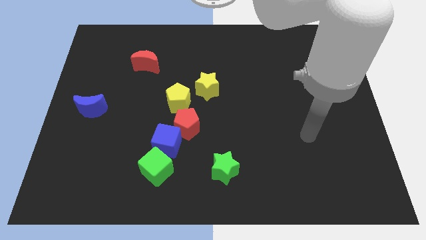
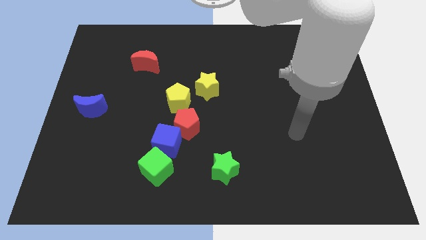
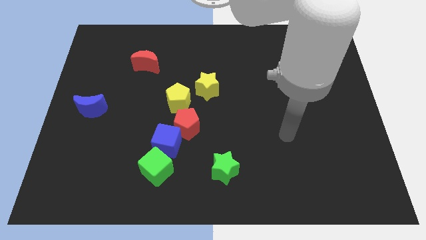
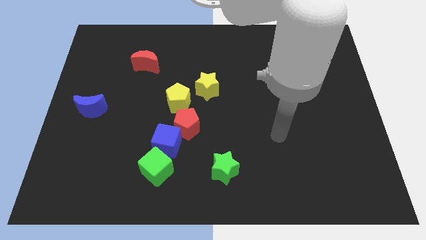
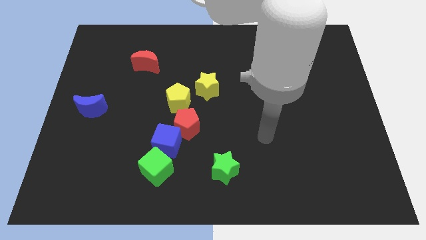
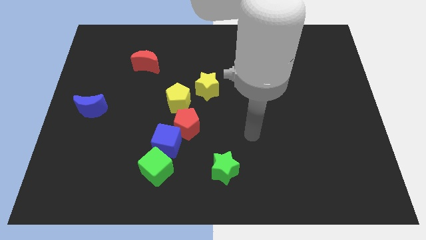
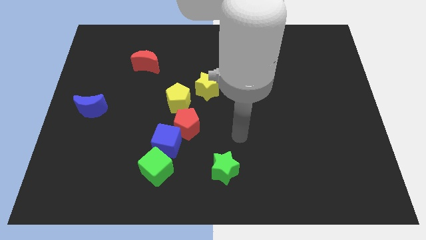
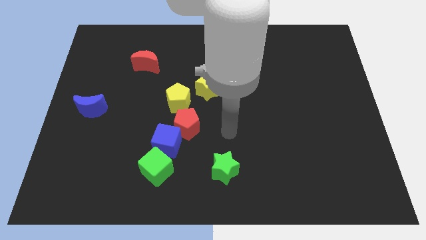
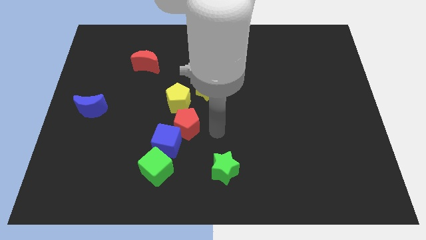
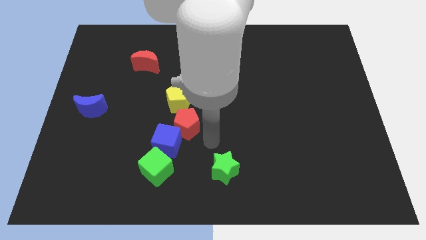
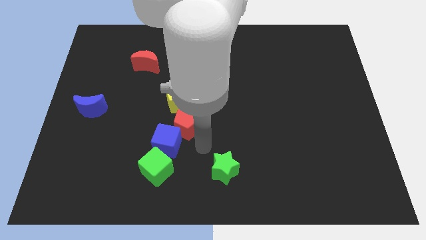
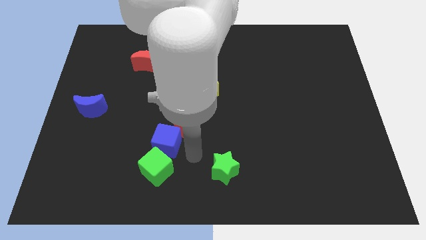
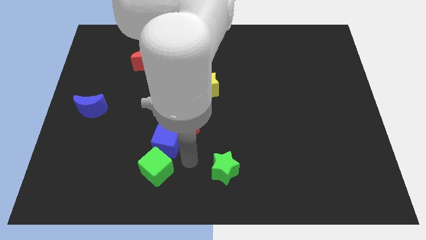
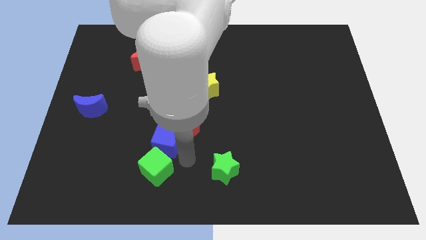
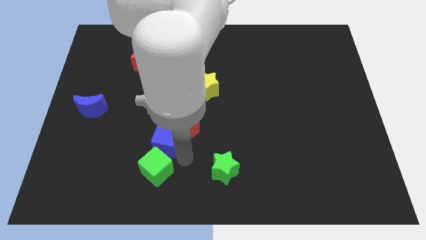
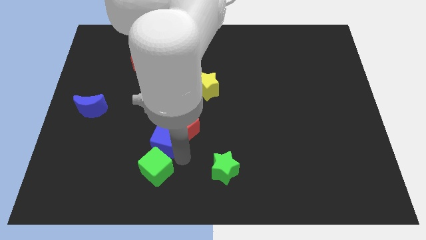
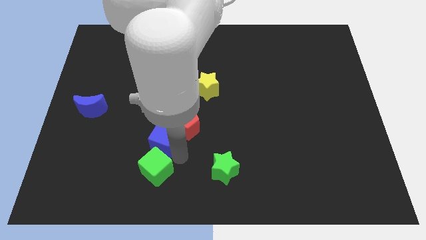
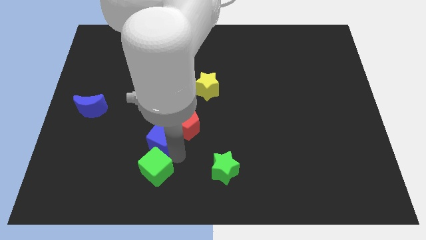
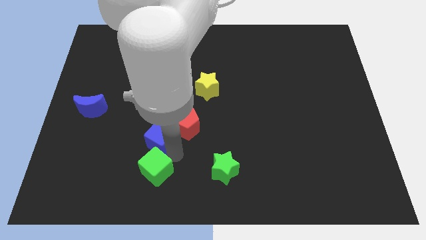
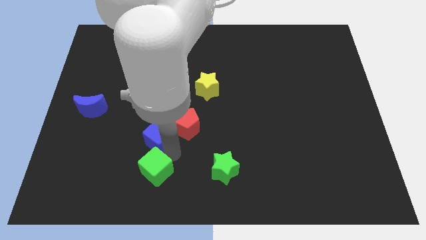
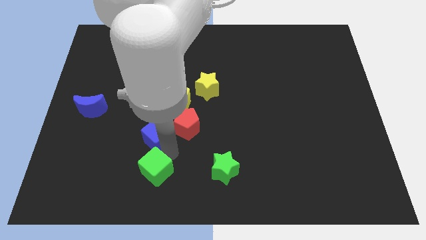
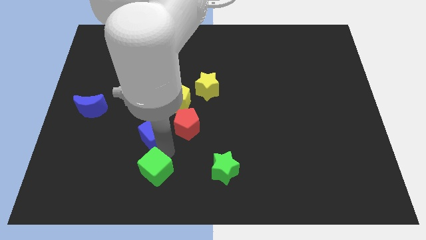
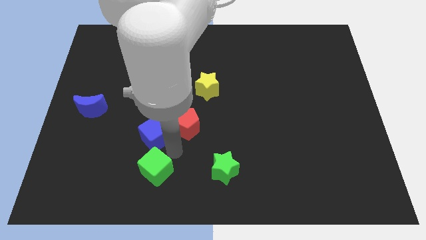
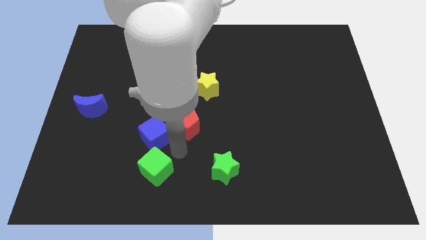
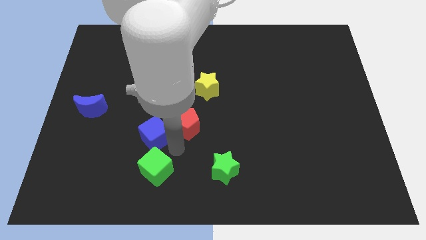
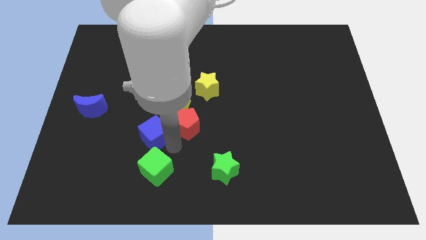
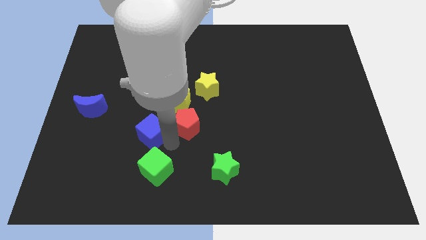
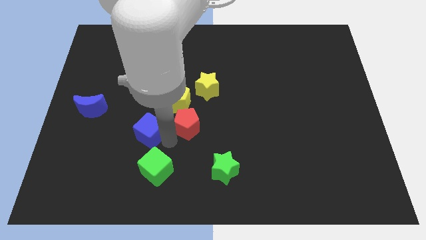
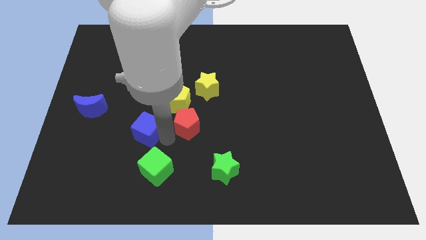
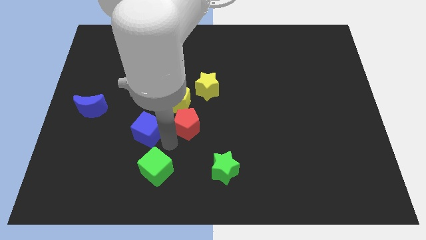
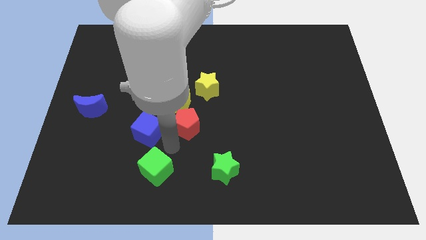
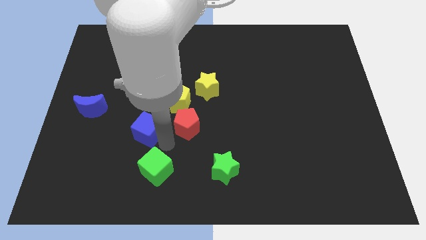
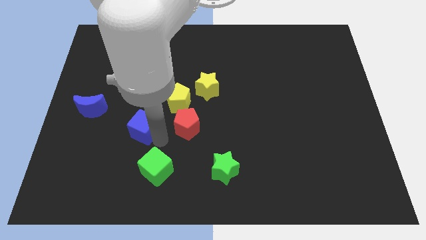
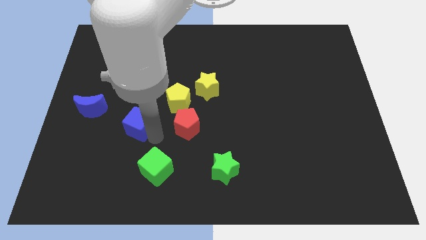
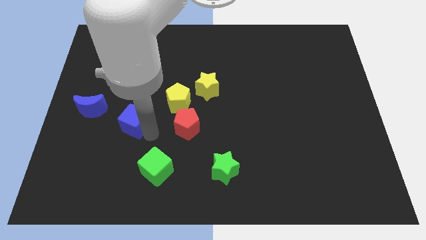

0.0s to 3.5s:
separate the blue cube from the red pentagon and green cube

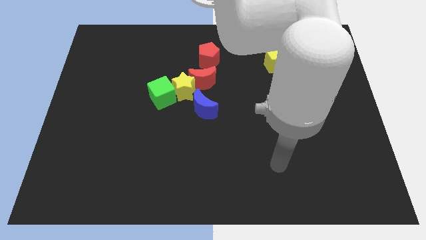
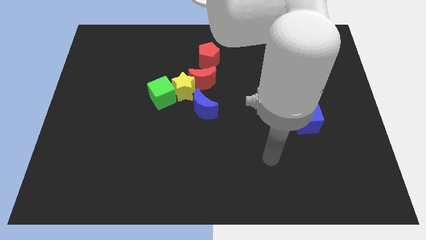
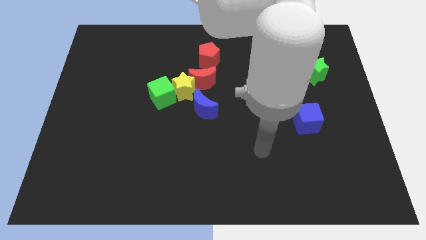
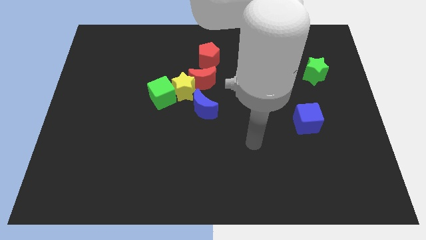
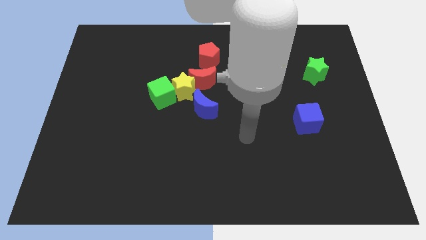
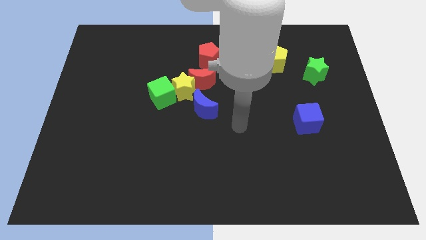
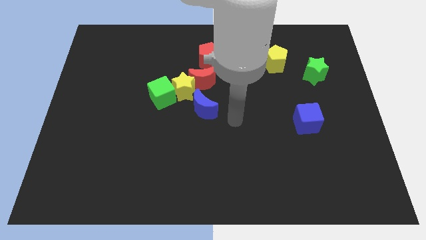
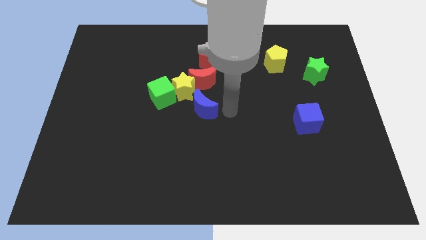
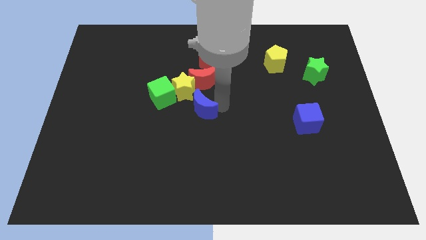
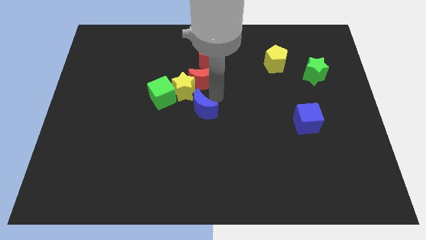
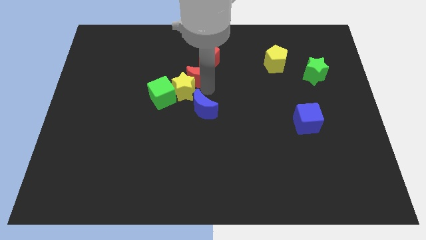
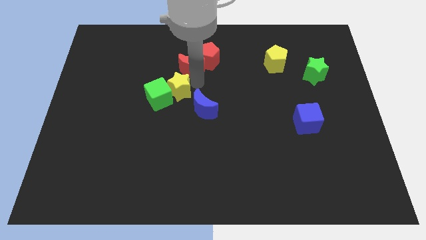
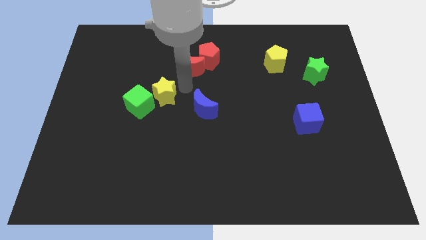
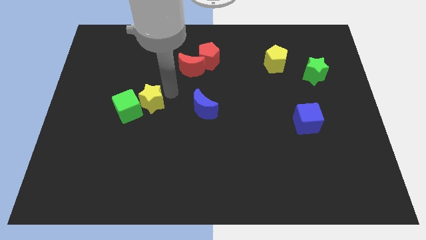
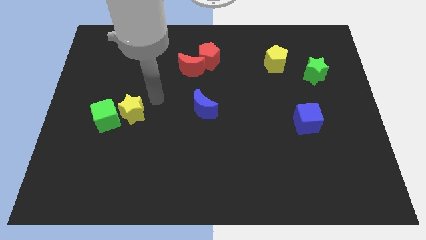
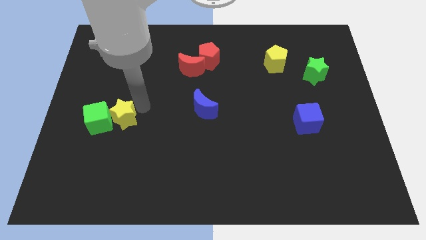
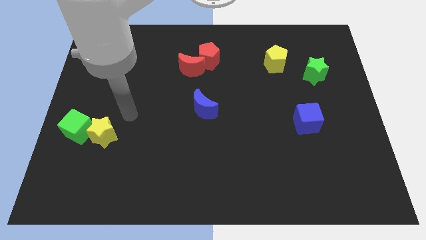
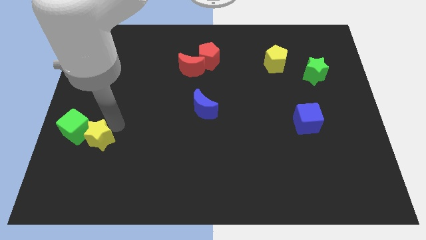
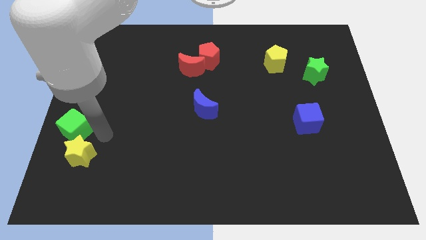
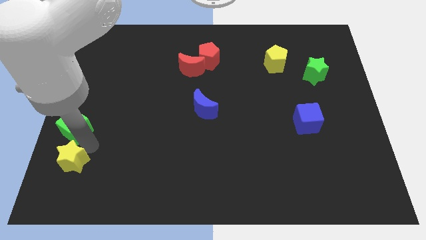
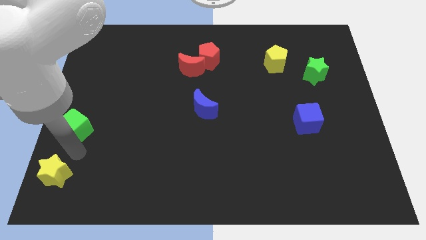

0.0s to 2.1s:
move the green cube away from the yellow star

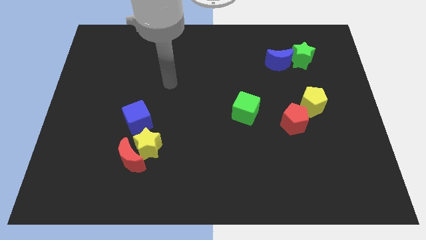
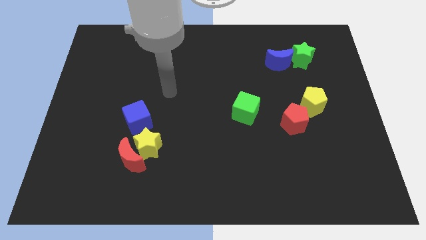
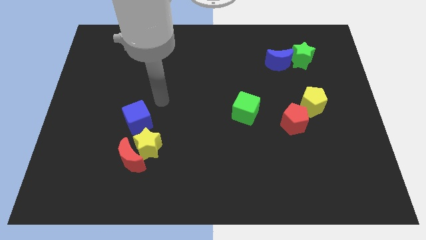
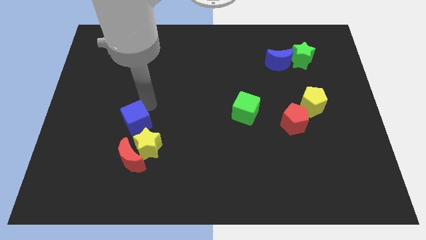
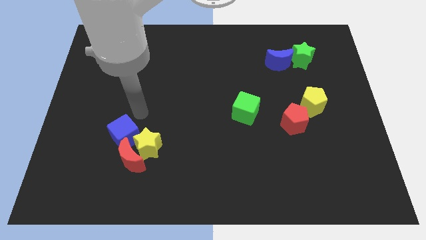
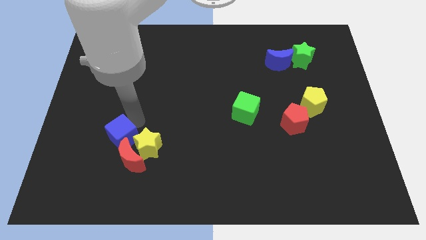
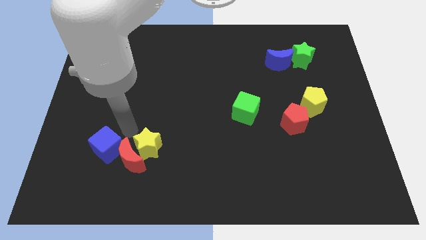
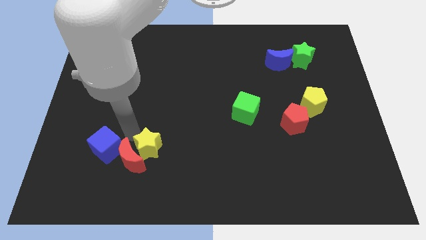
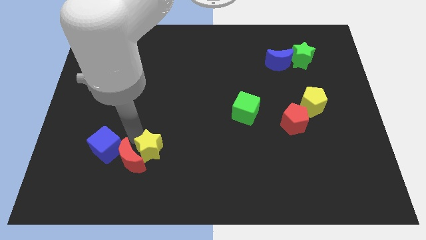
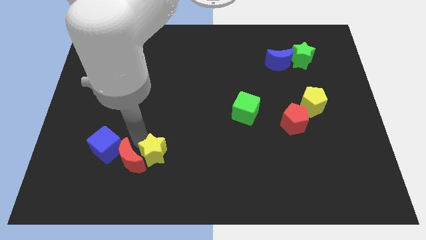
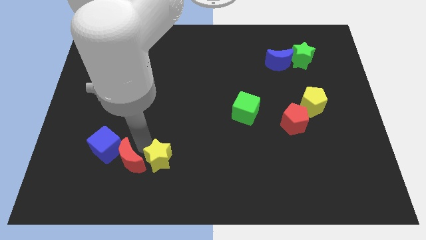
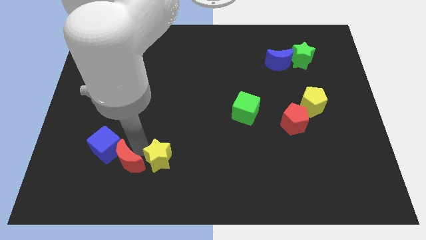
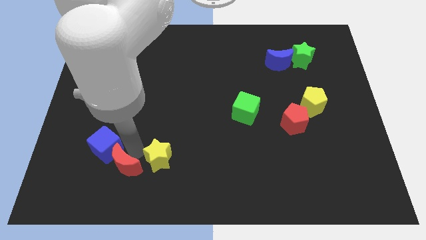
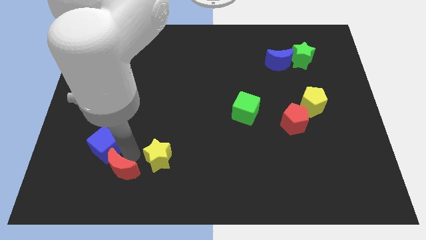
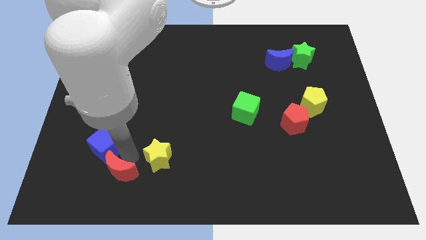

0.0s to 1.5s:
separate the yellow star from the red moon and blue cube

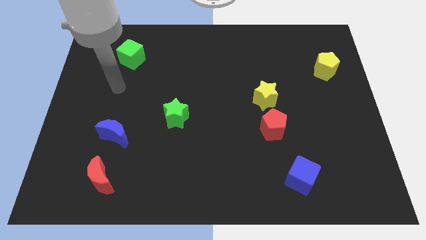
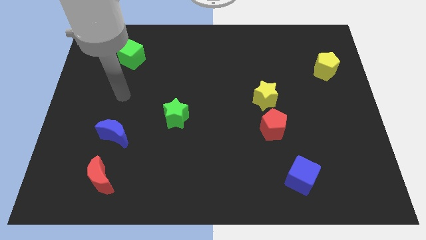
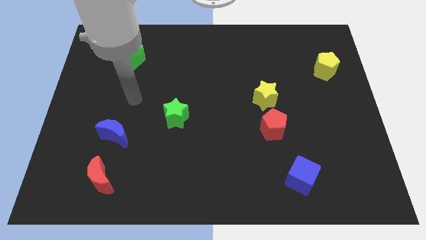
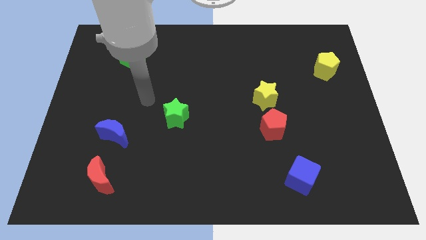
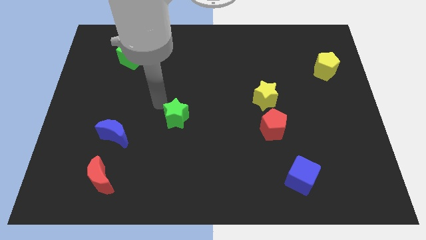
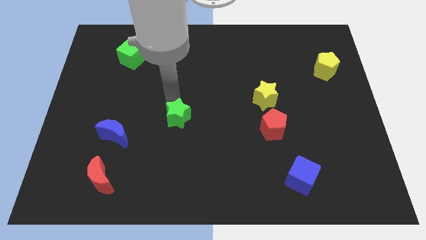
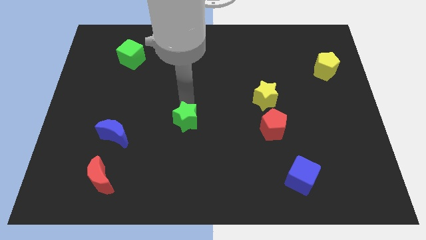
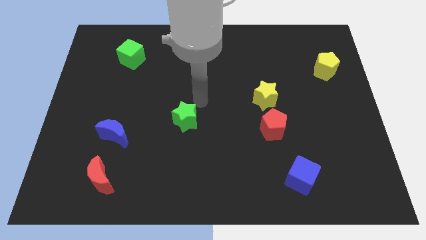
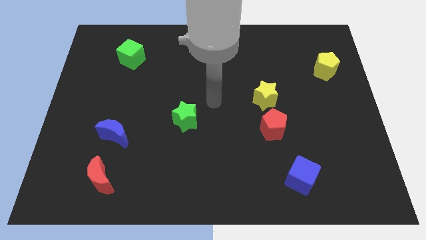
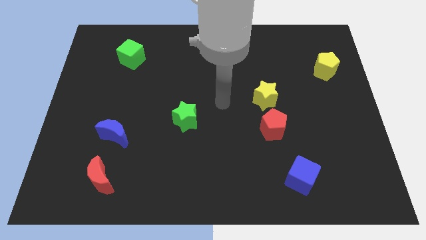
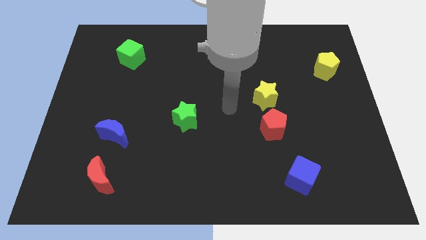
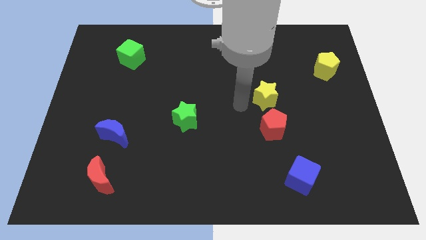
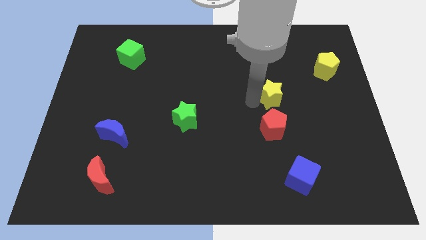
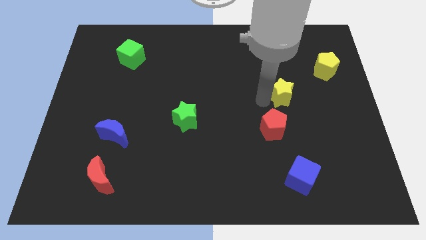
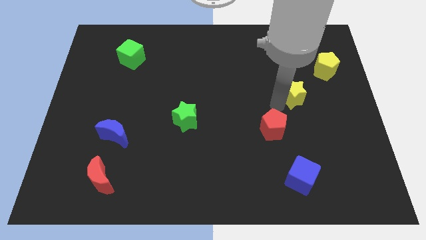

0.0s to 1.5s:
move the red pentagon away from the yellow star

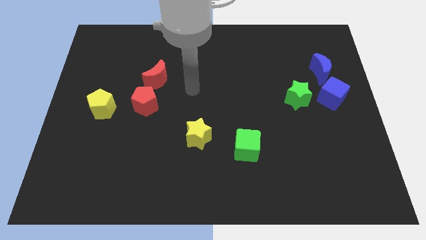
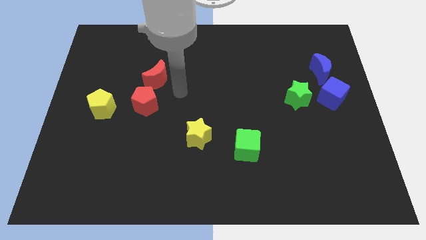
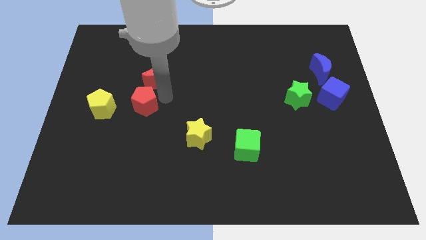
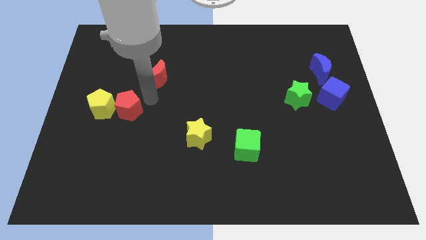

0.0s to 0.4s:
pull the red moon apart from the red pentagon

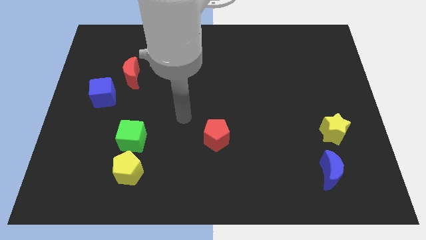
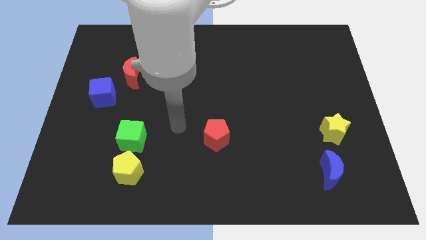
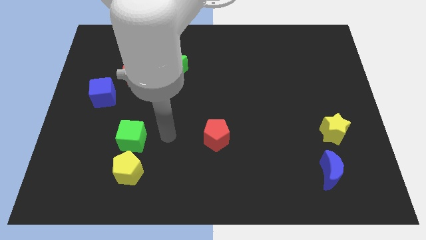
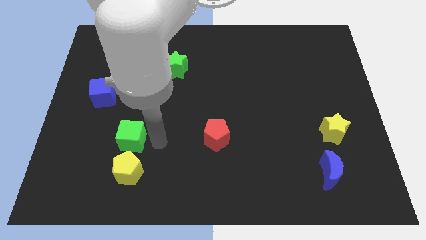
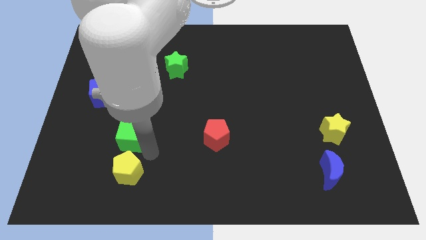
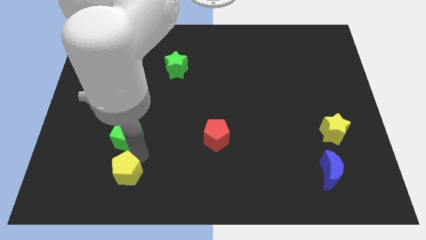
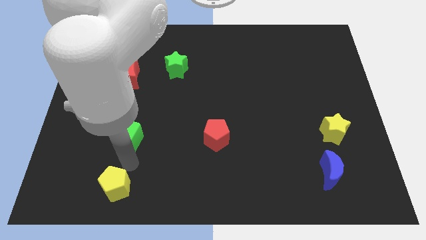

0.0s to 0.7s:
pull the green cube apart from the yellow pentagon
